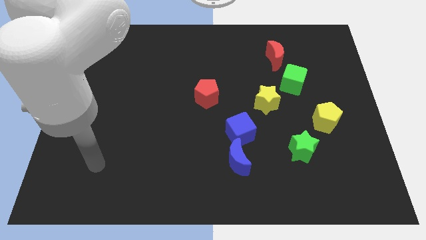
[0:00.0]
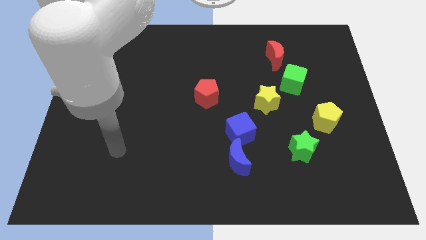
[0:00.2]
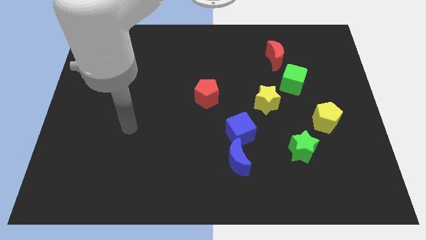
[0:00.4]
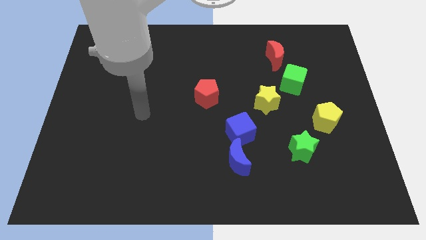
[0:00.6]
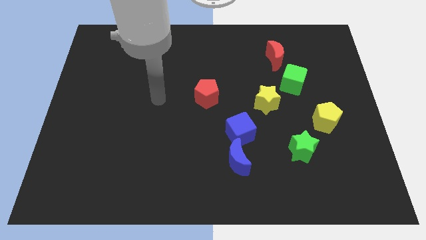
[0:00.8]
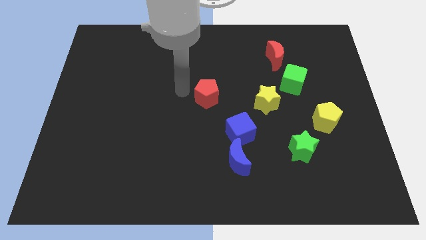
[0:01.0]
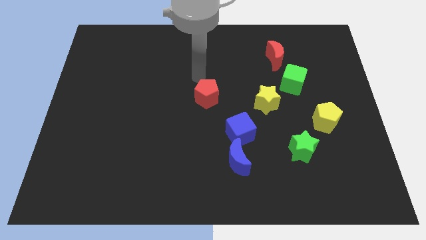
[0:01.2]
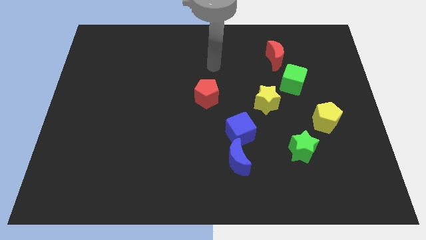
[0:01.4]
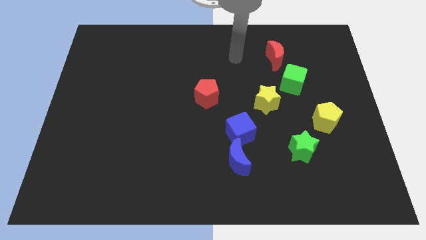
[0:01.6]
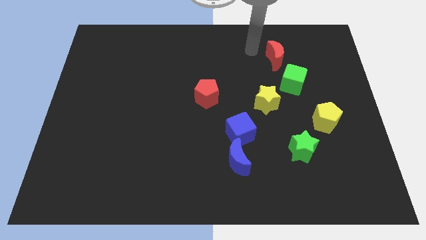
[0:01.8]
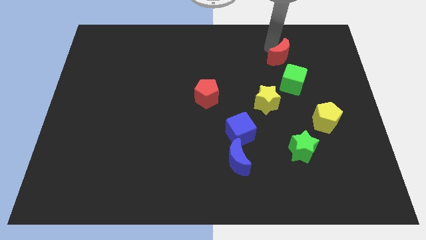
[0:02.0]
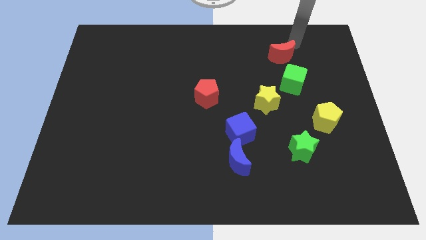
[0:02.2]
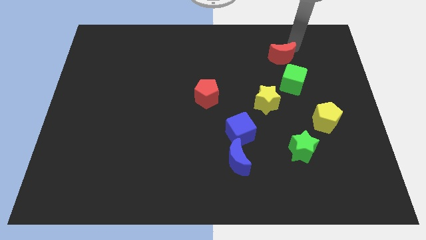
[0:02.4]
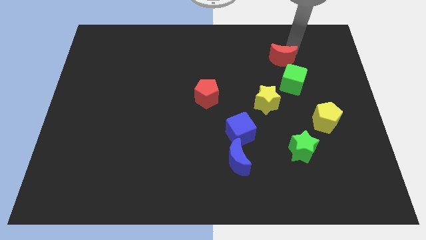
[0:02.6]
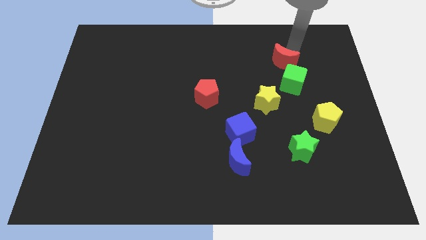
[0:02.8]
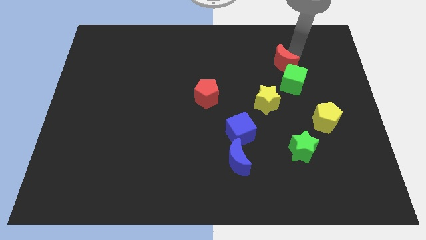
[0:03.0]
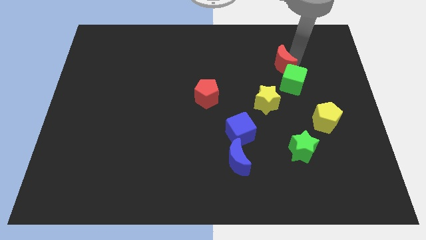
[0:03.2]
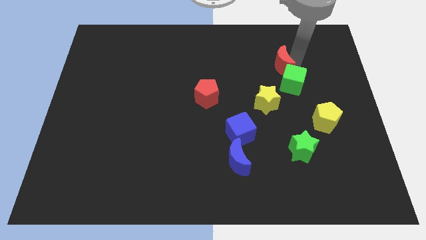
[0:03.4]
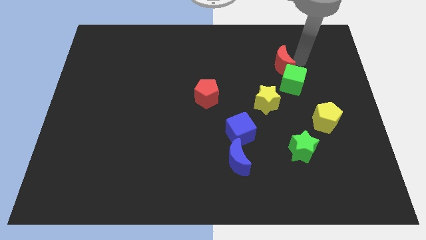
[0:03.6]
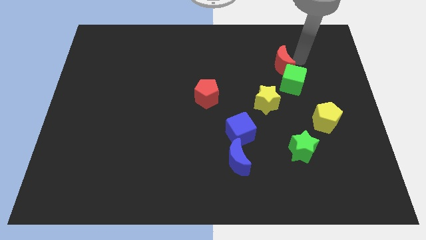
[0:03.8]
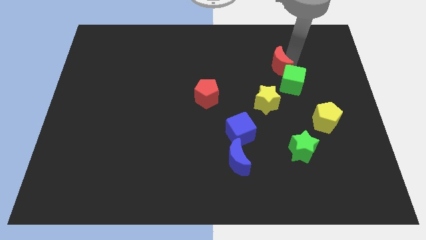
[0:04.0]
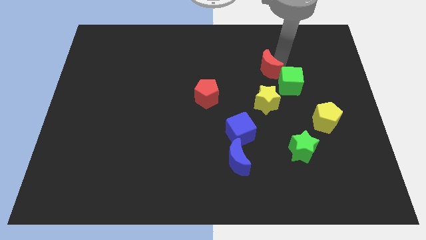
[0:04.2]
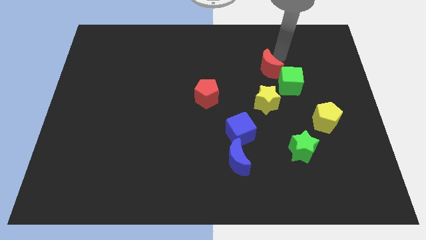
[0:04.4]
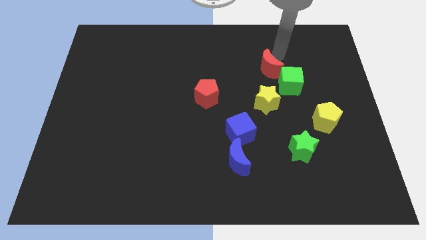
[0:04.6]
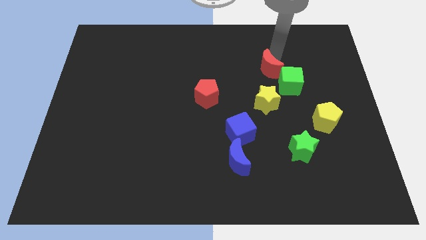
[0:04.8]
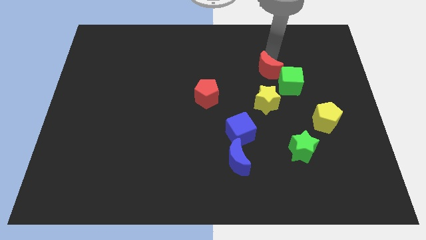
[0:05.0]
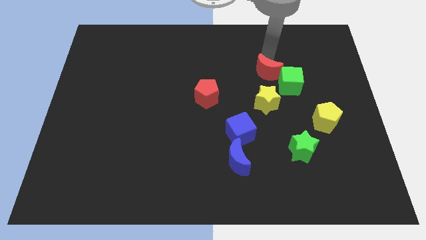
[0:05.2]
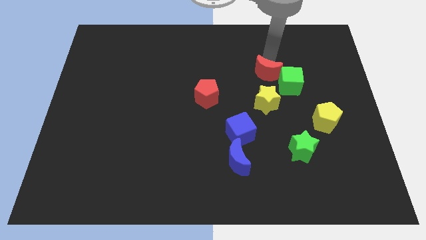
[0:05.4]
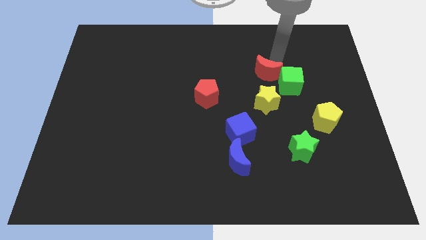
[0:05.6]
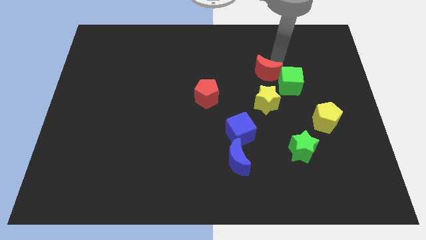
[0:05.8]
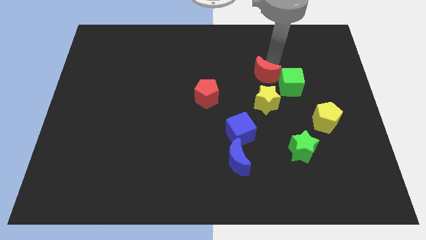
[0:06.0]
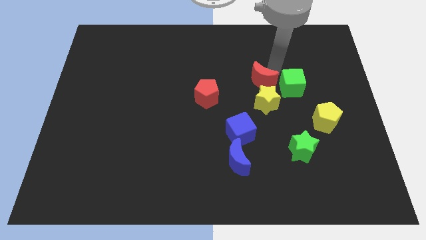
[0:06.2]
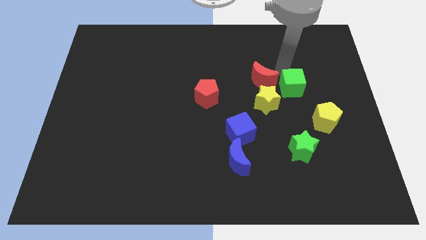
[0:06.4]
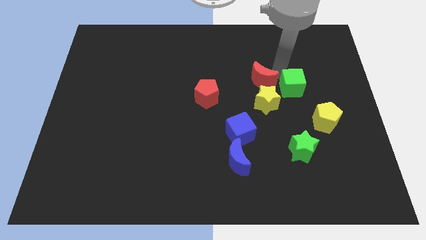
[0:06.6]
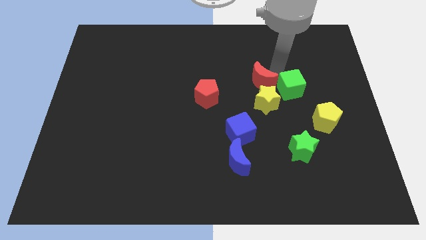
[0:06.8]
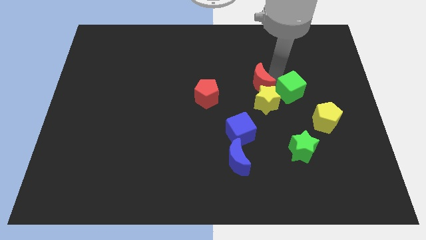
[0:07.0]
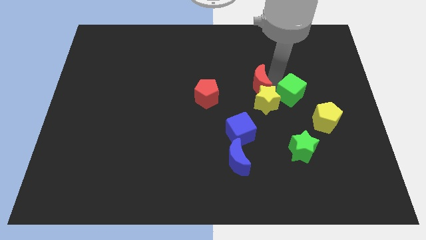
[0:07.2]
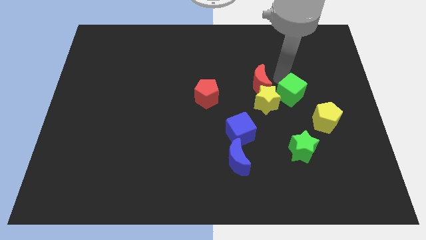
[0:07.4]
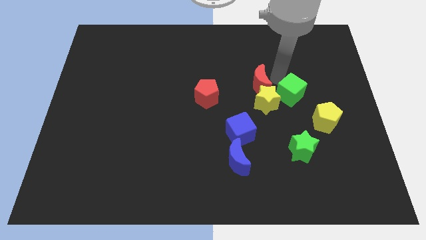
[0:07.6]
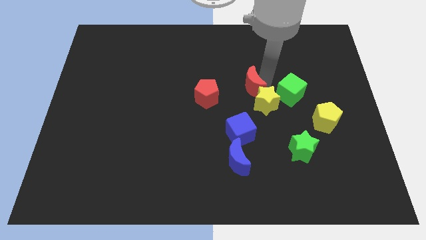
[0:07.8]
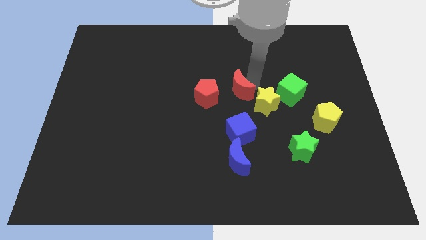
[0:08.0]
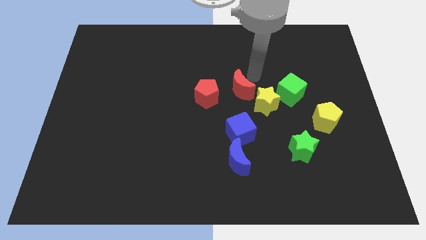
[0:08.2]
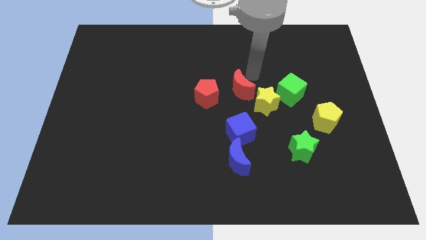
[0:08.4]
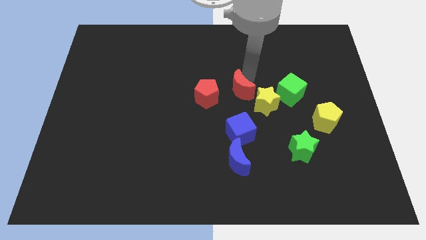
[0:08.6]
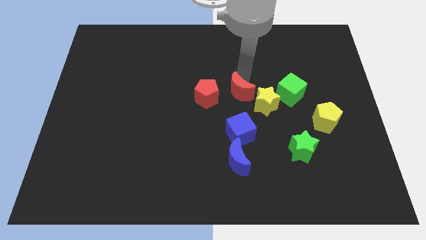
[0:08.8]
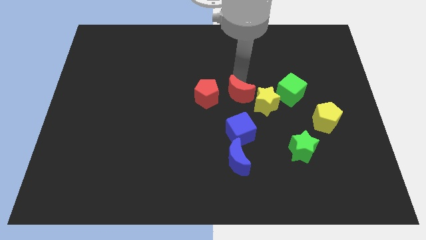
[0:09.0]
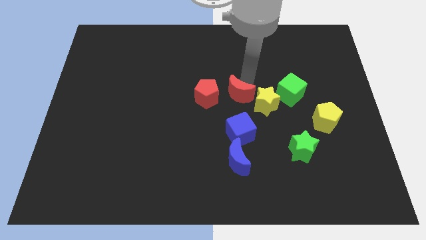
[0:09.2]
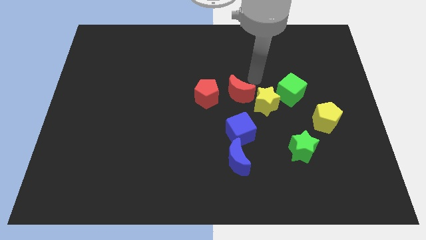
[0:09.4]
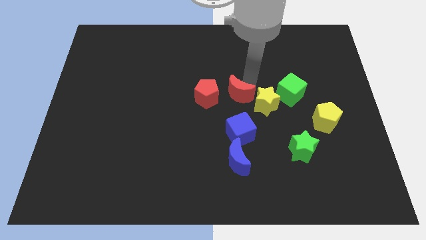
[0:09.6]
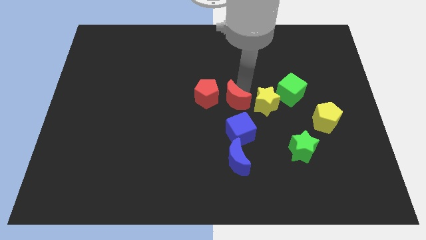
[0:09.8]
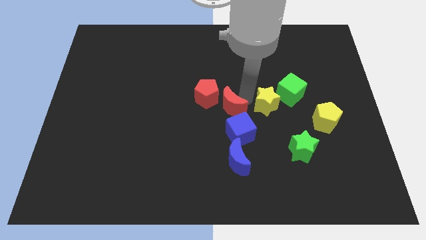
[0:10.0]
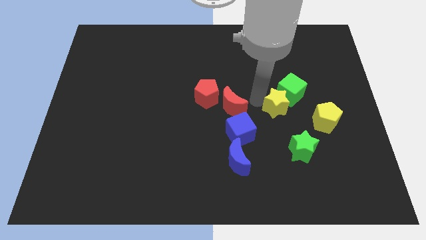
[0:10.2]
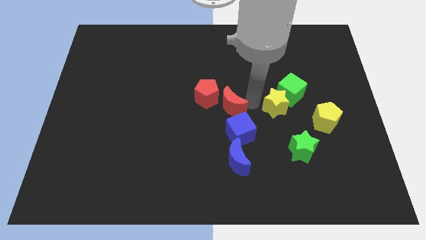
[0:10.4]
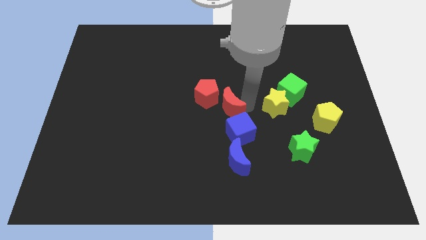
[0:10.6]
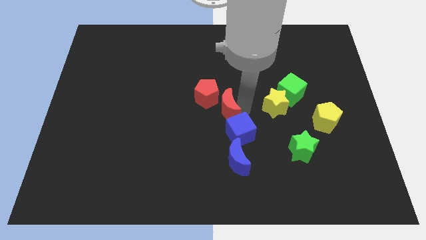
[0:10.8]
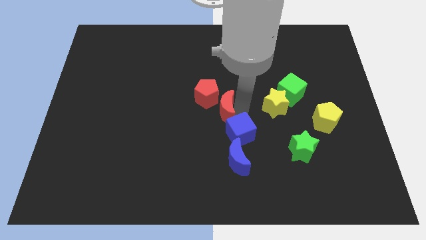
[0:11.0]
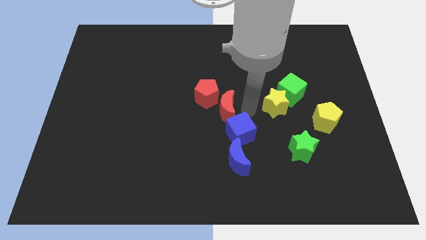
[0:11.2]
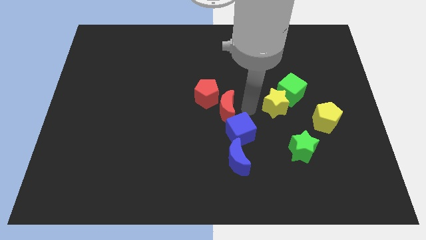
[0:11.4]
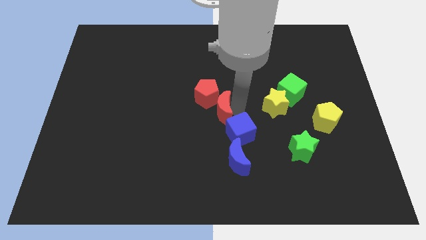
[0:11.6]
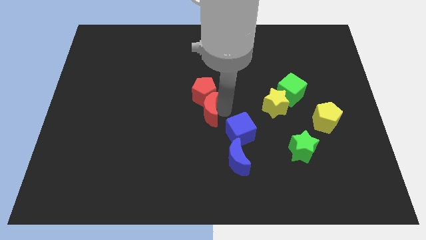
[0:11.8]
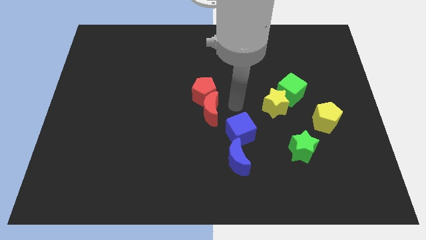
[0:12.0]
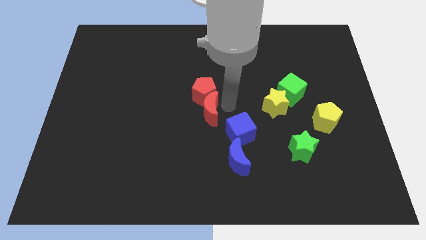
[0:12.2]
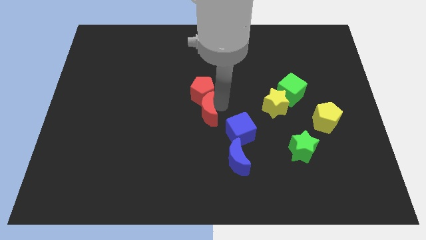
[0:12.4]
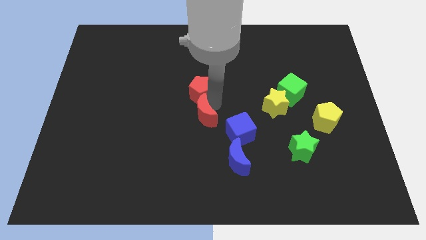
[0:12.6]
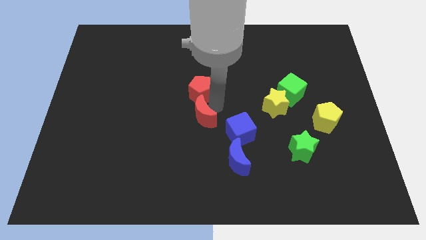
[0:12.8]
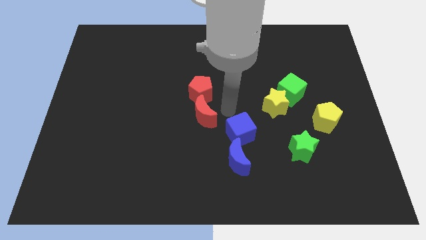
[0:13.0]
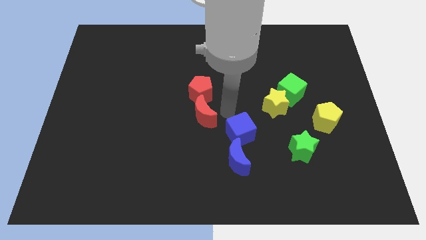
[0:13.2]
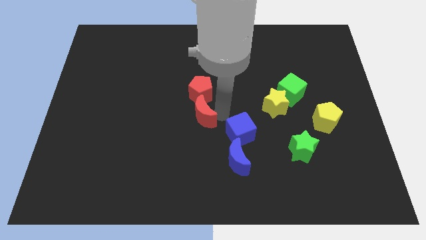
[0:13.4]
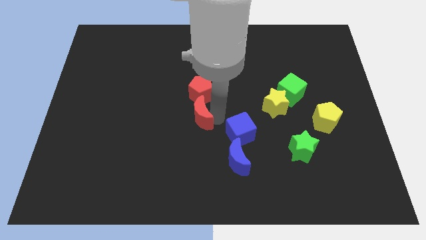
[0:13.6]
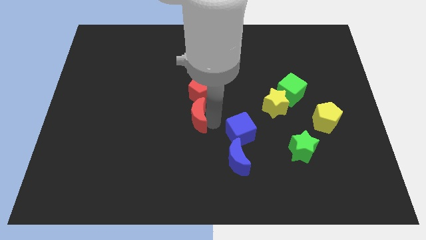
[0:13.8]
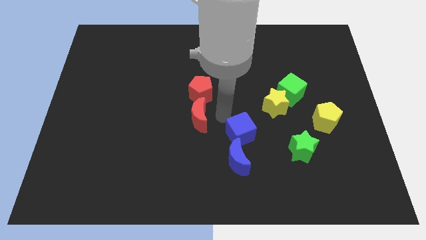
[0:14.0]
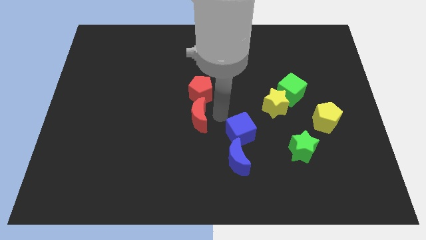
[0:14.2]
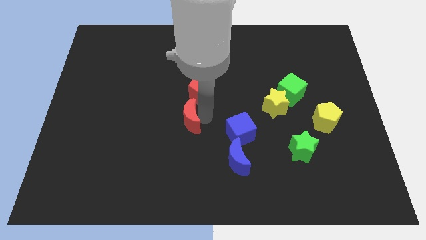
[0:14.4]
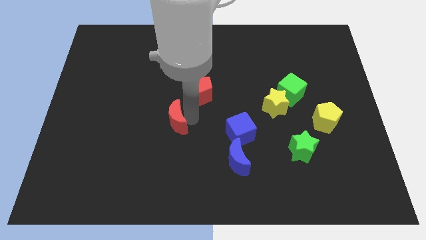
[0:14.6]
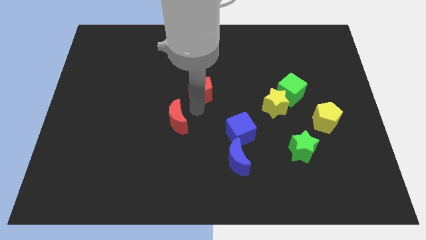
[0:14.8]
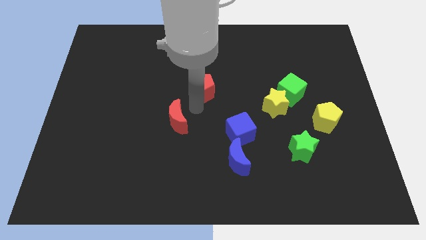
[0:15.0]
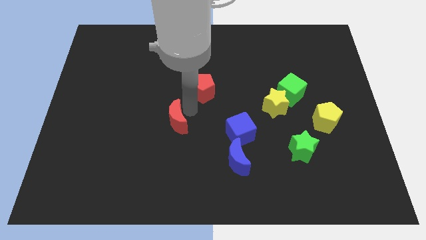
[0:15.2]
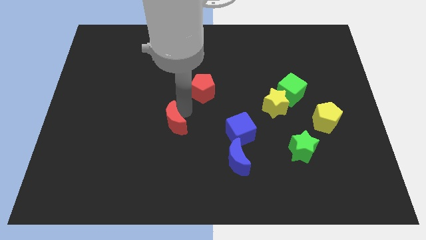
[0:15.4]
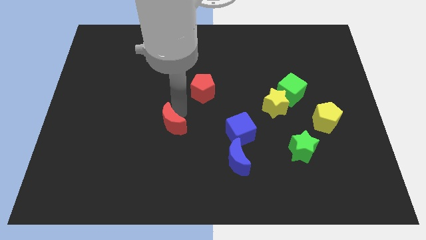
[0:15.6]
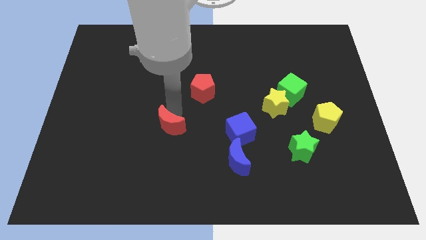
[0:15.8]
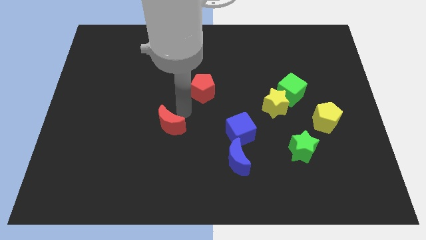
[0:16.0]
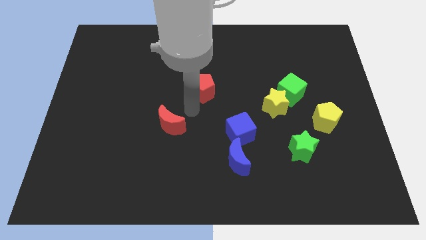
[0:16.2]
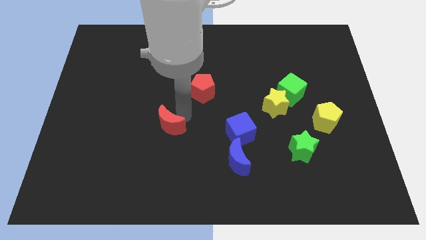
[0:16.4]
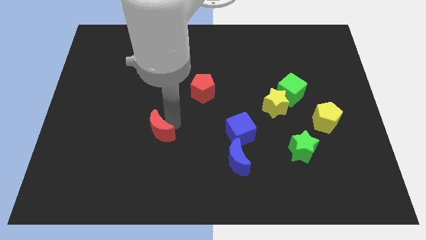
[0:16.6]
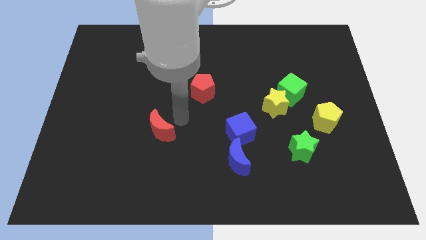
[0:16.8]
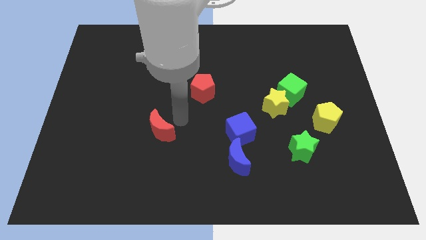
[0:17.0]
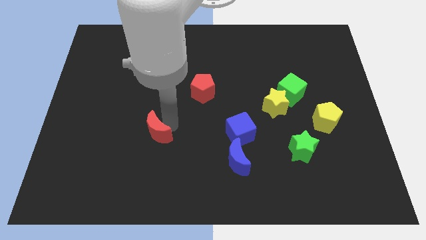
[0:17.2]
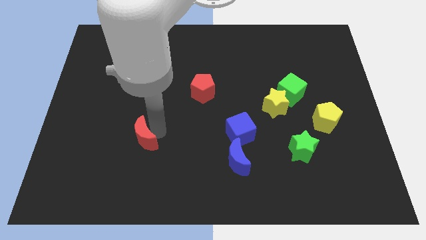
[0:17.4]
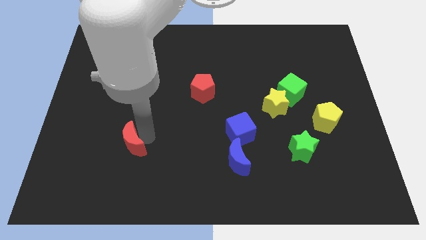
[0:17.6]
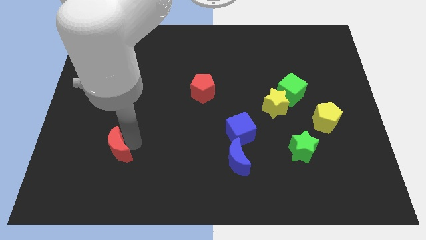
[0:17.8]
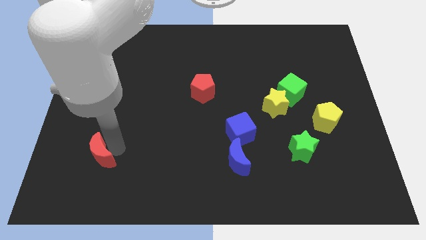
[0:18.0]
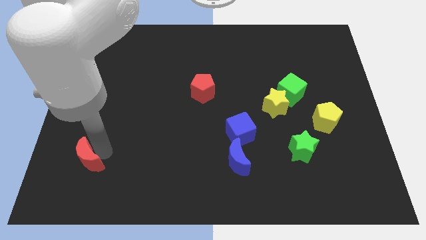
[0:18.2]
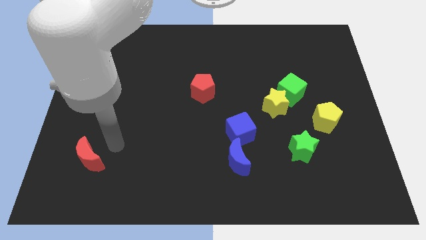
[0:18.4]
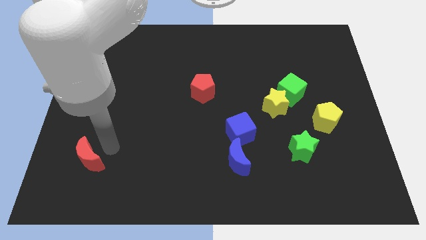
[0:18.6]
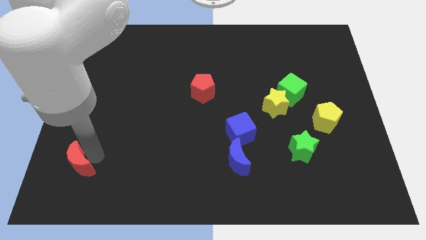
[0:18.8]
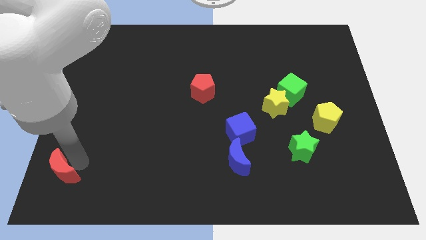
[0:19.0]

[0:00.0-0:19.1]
slide the red moon to the bottom left
